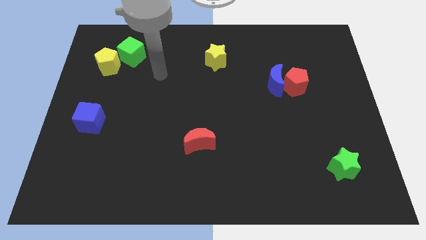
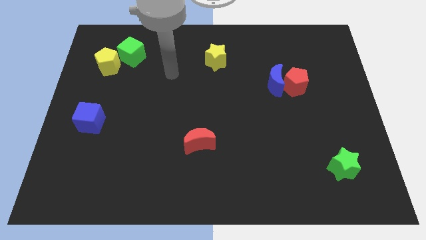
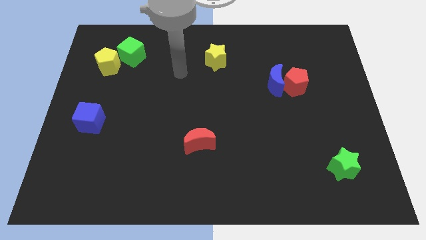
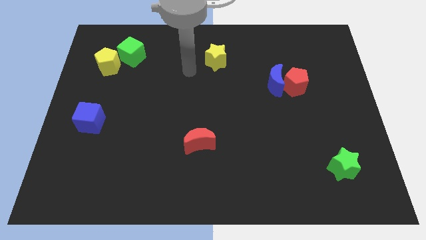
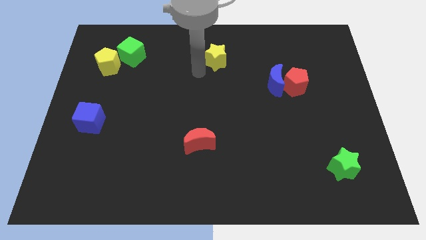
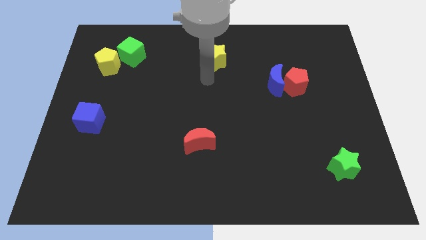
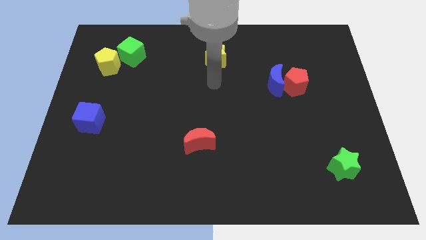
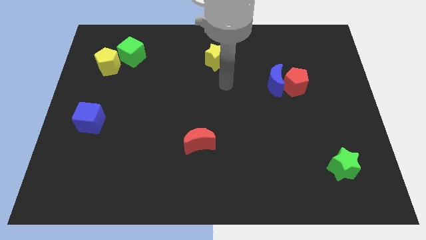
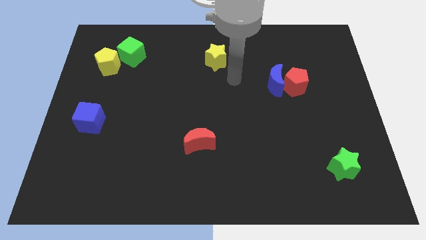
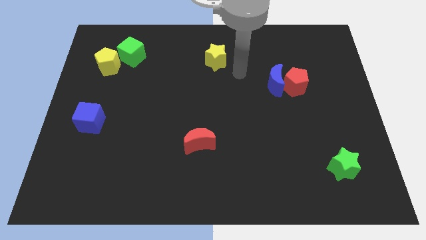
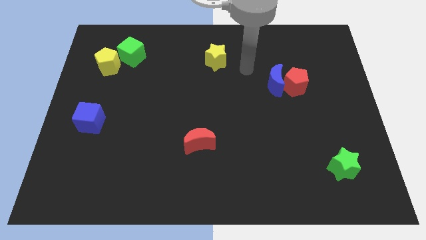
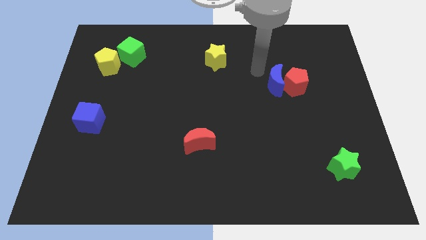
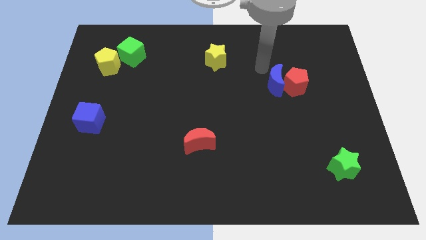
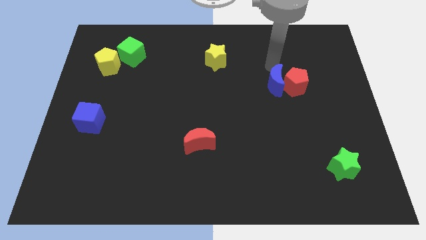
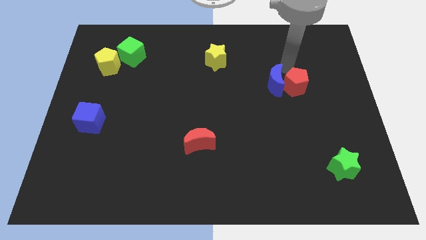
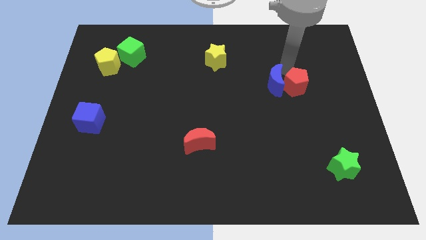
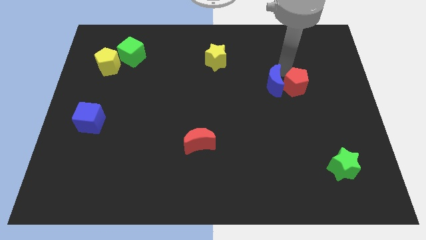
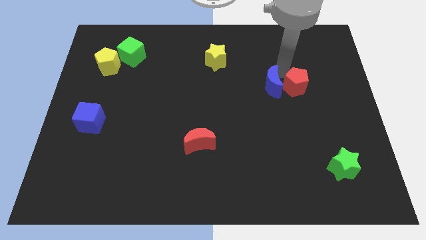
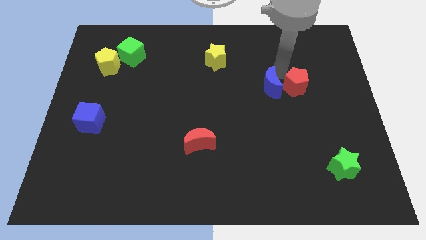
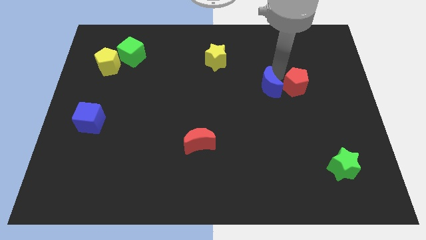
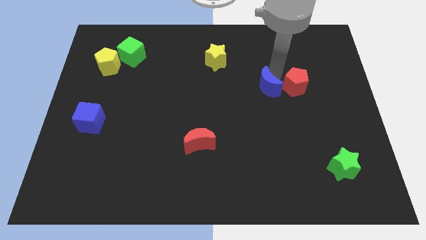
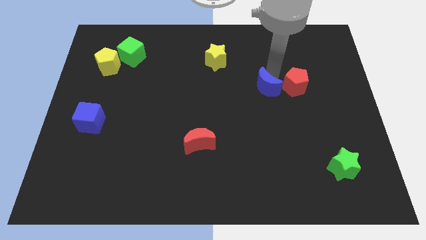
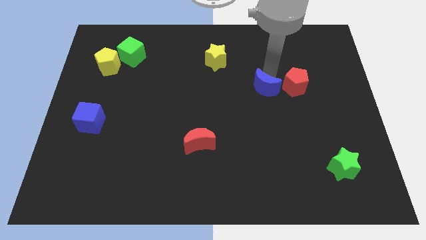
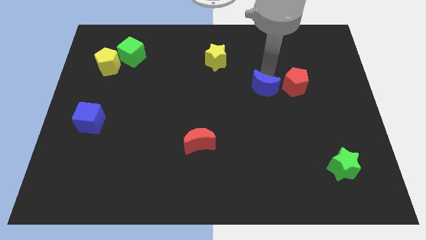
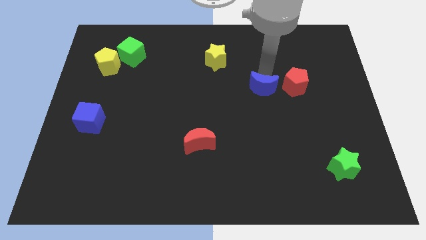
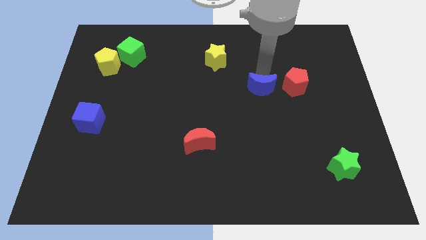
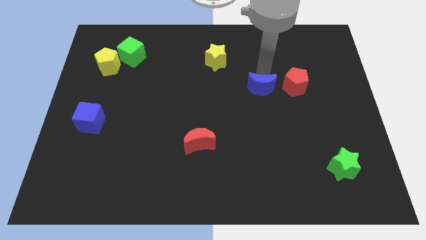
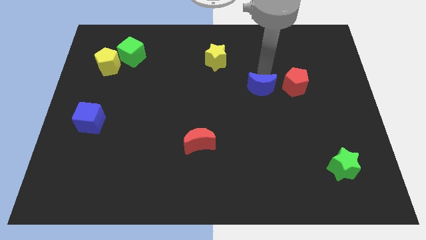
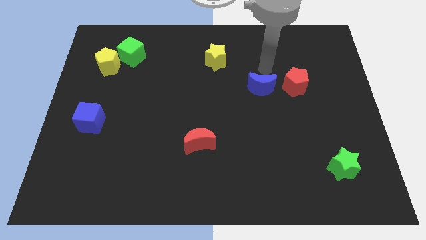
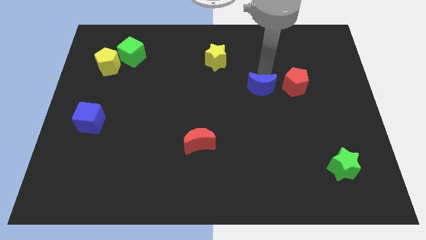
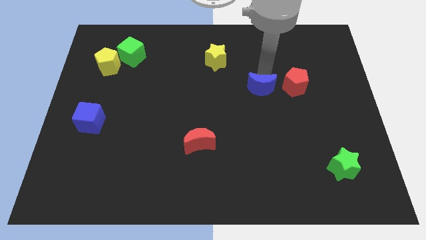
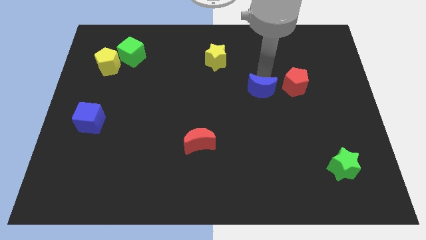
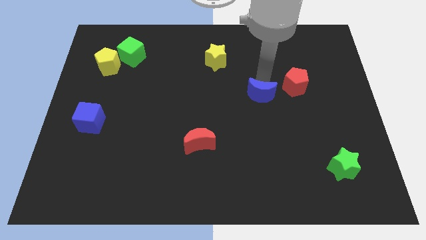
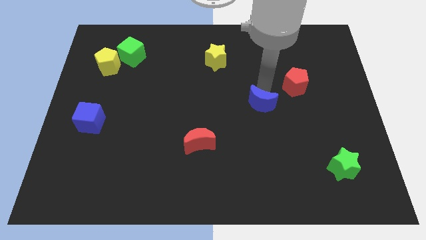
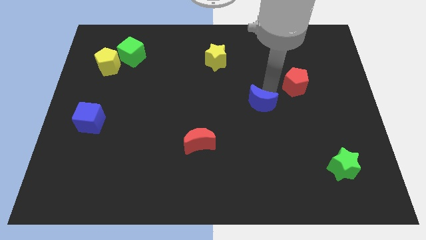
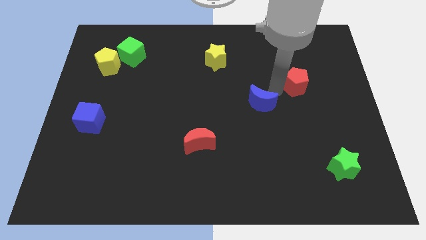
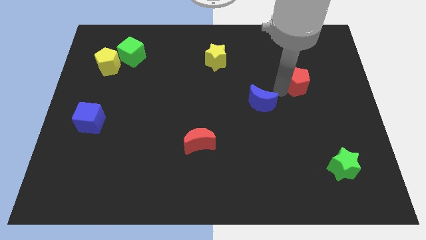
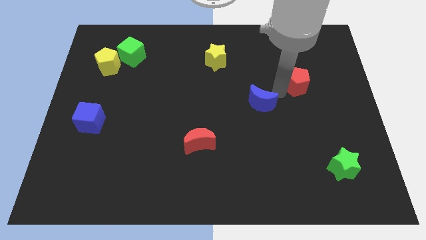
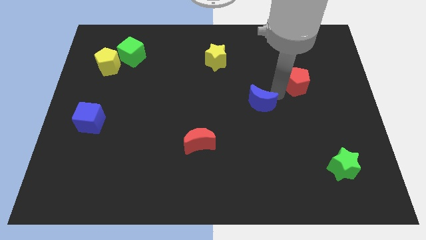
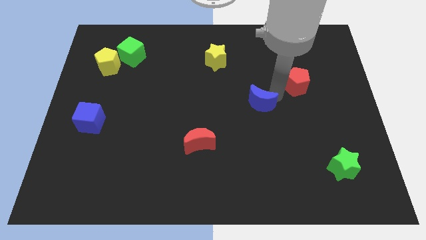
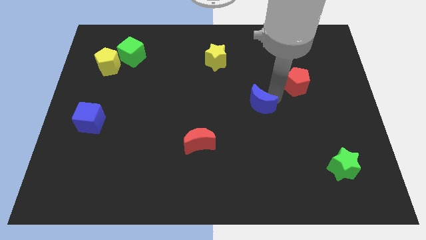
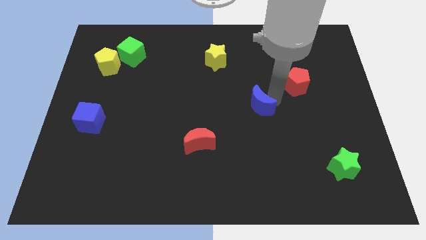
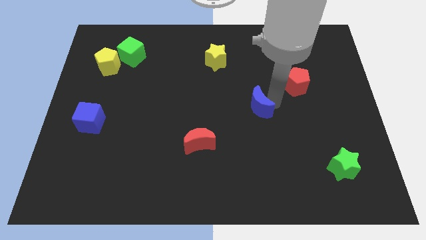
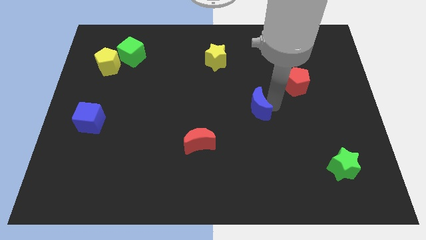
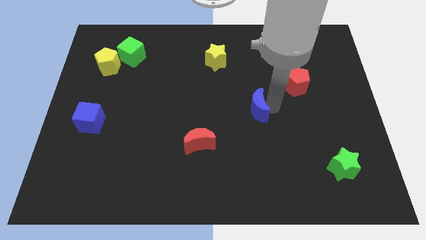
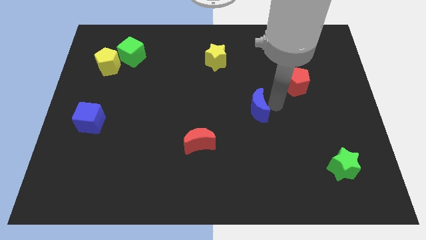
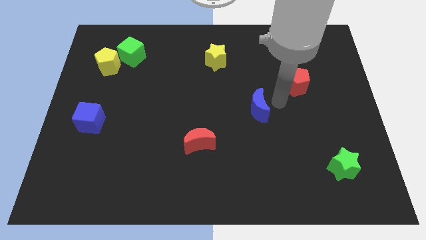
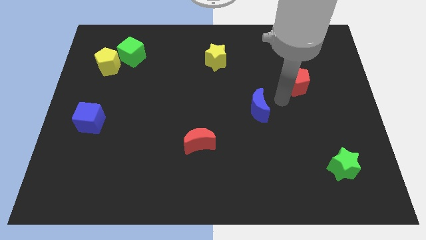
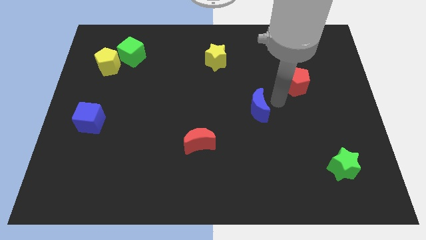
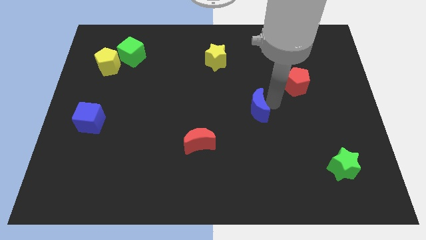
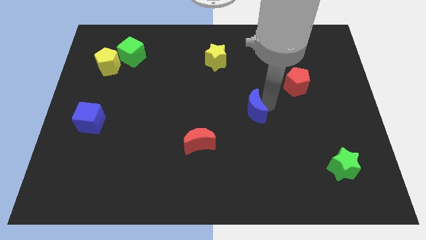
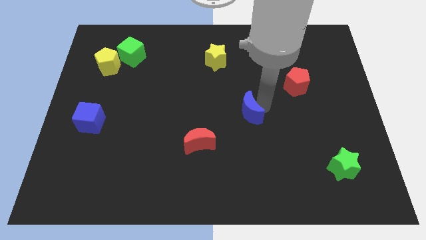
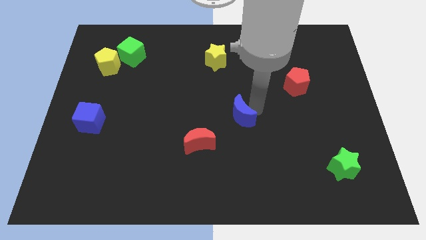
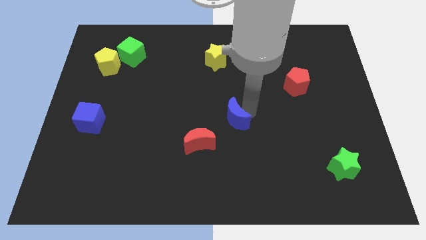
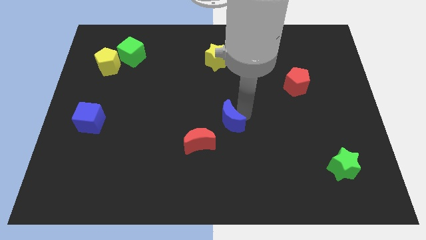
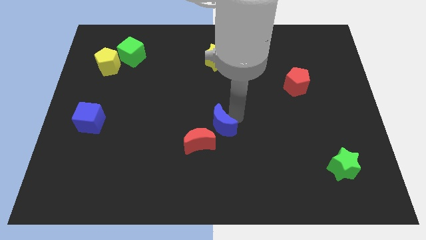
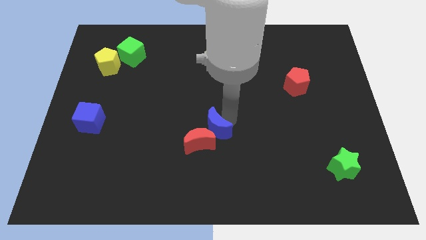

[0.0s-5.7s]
slide the blue moon close to the red moon
